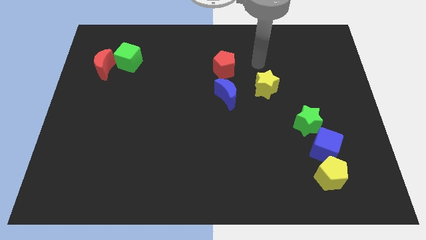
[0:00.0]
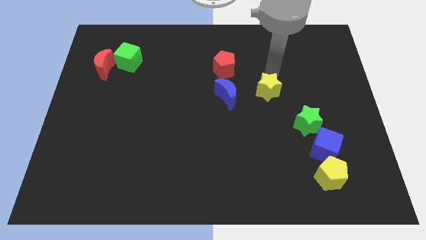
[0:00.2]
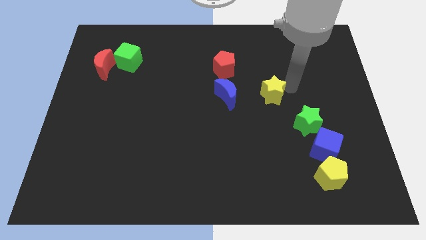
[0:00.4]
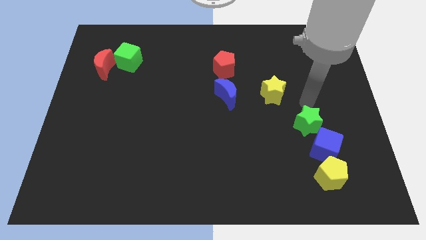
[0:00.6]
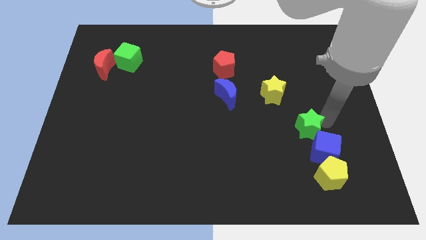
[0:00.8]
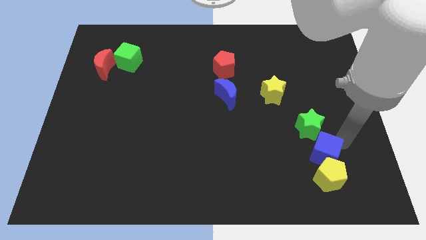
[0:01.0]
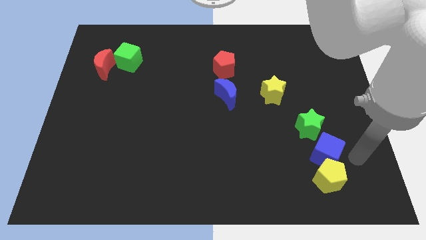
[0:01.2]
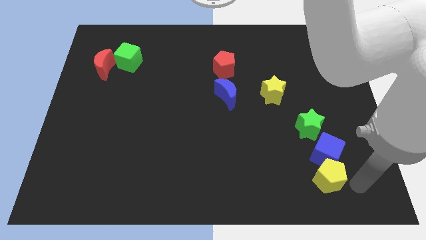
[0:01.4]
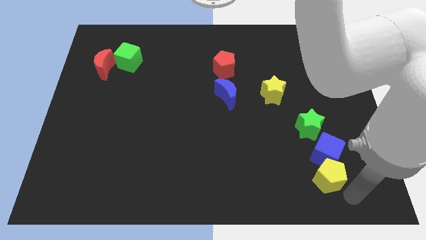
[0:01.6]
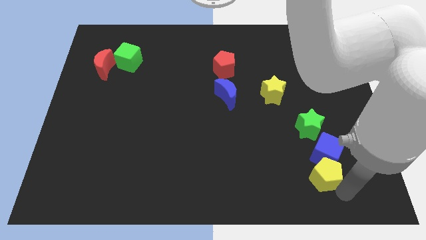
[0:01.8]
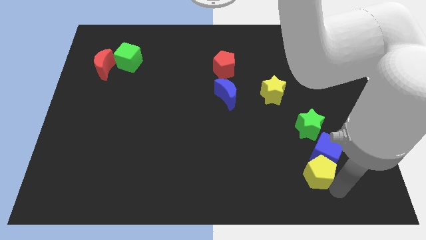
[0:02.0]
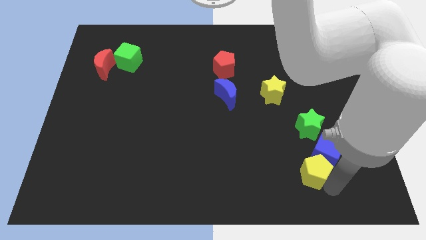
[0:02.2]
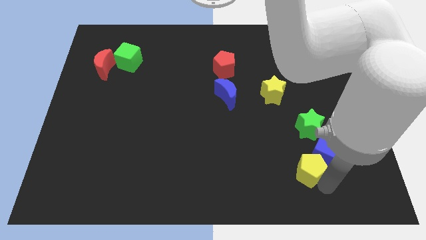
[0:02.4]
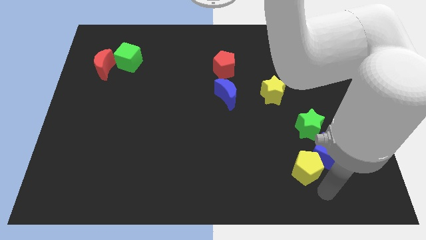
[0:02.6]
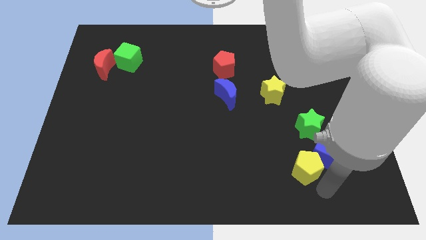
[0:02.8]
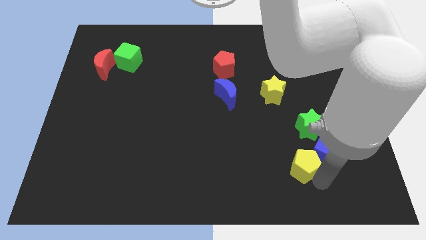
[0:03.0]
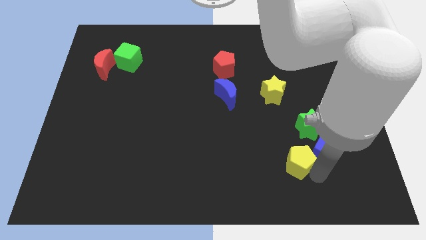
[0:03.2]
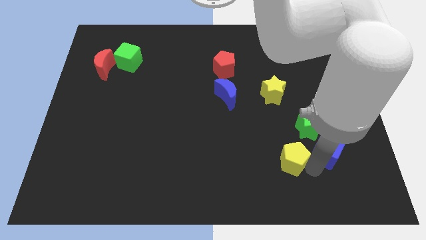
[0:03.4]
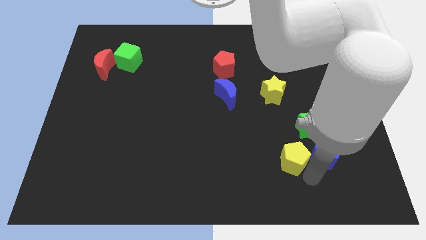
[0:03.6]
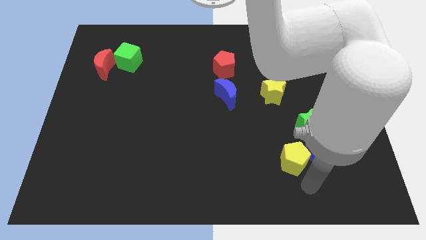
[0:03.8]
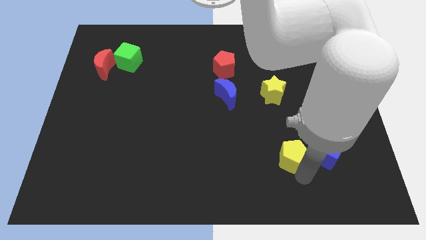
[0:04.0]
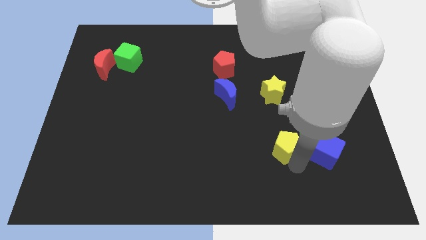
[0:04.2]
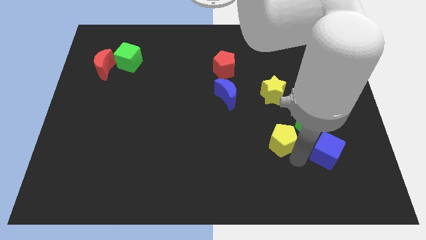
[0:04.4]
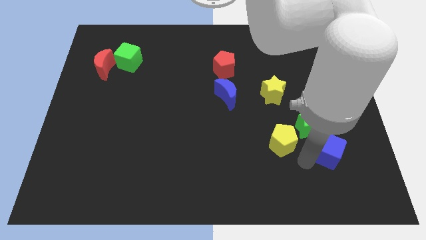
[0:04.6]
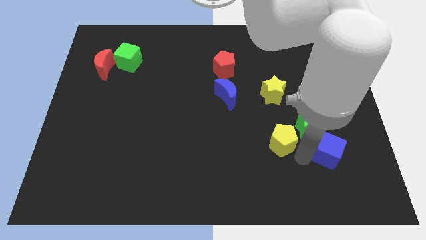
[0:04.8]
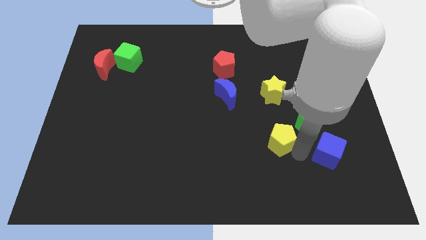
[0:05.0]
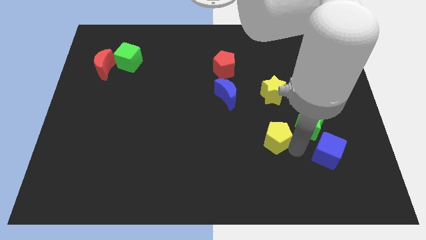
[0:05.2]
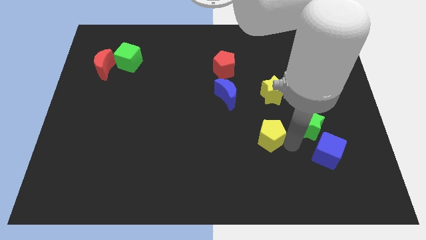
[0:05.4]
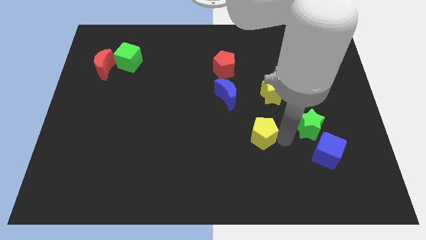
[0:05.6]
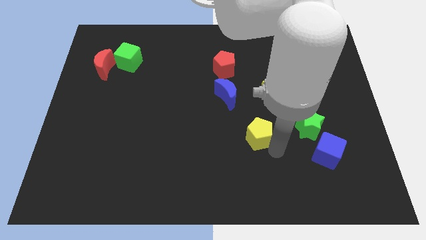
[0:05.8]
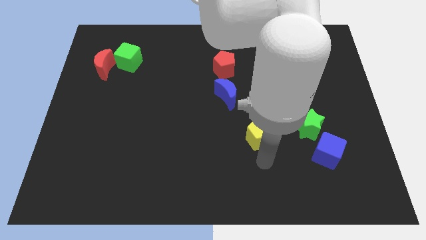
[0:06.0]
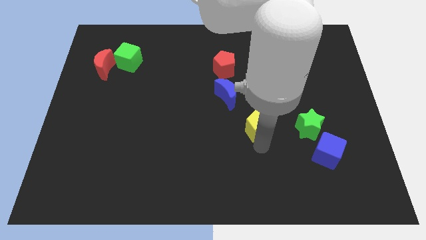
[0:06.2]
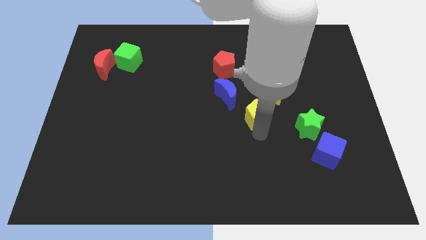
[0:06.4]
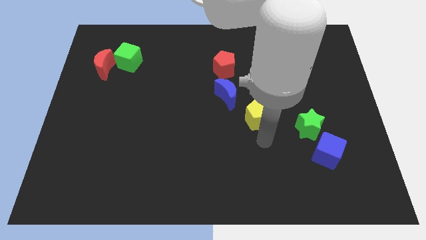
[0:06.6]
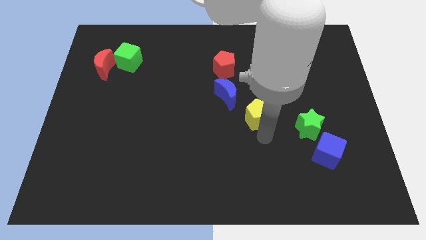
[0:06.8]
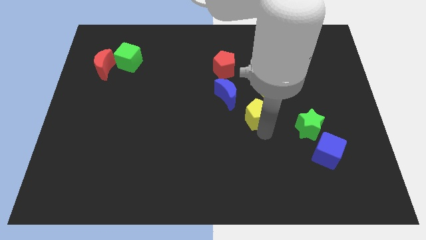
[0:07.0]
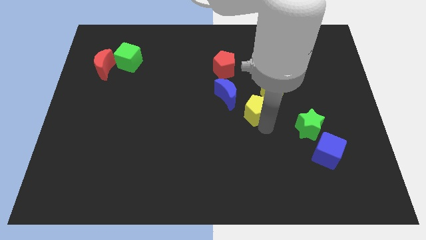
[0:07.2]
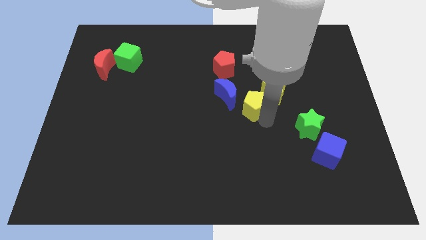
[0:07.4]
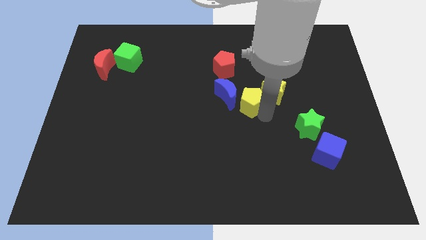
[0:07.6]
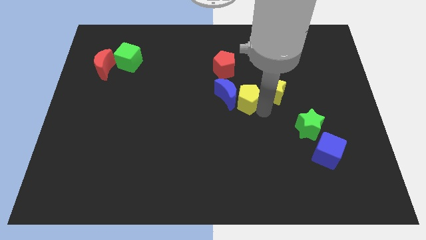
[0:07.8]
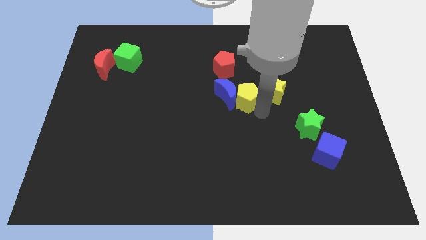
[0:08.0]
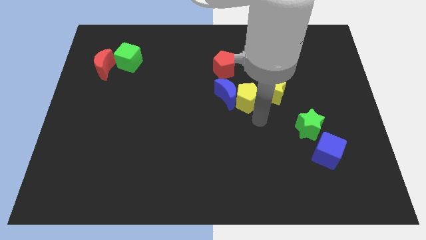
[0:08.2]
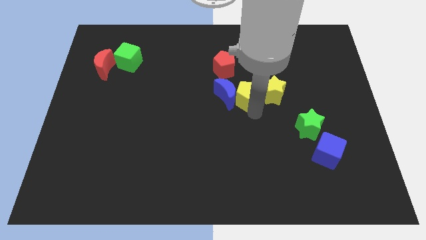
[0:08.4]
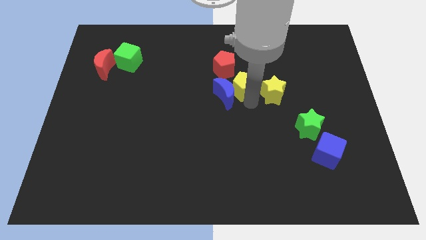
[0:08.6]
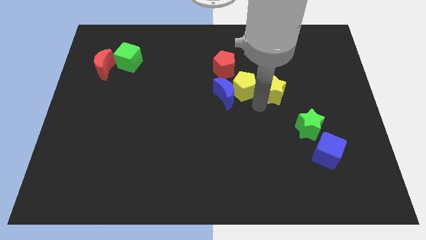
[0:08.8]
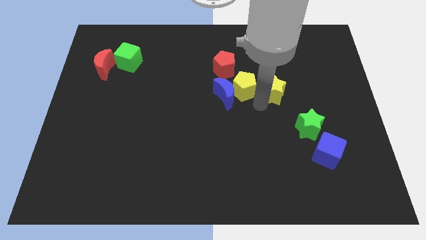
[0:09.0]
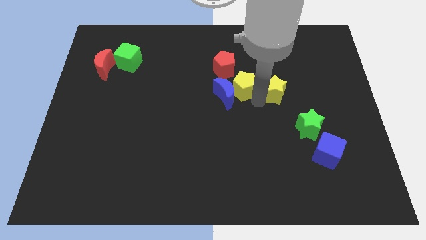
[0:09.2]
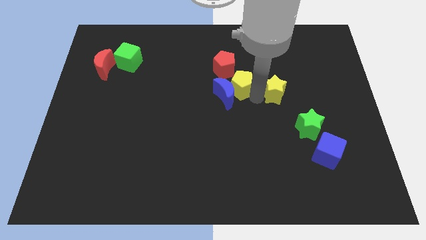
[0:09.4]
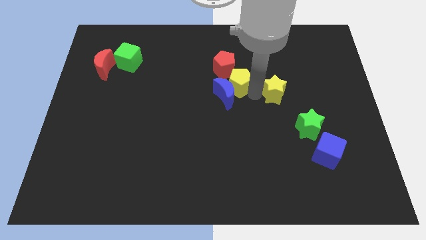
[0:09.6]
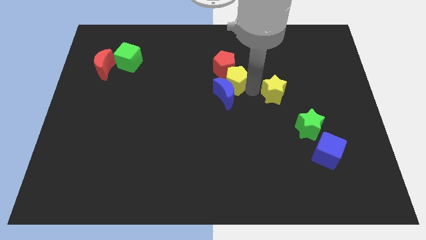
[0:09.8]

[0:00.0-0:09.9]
put the yellow pentagon towards the red pentagon

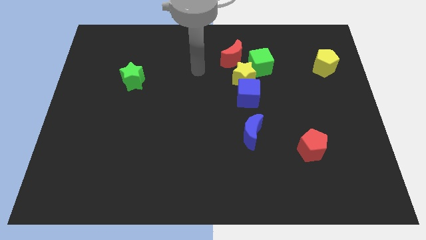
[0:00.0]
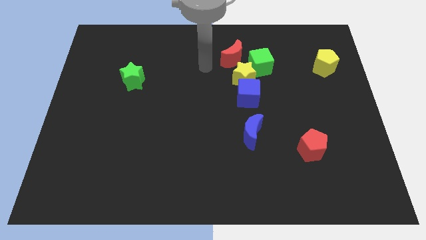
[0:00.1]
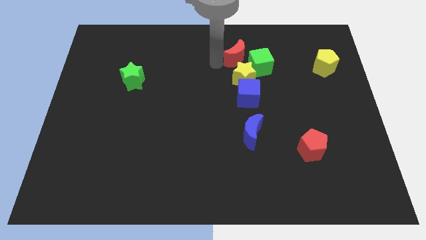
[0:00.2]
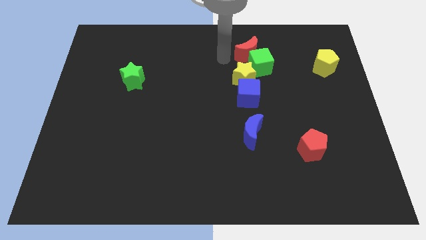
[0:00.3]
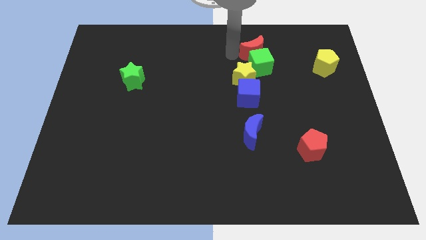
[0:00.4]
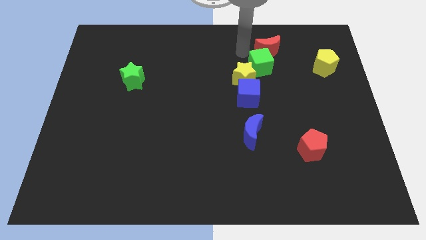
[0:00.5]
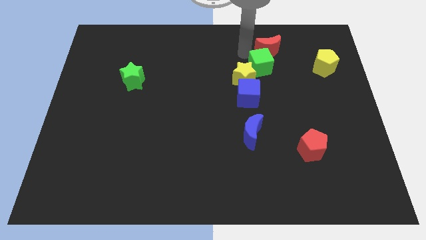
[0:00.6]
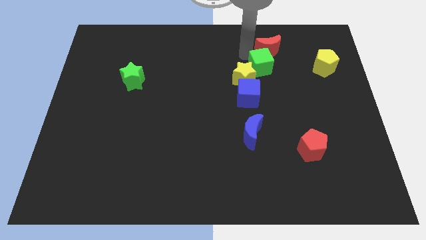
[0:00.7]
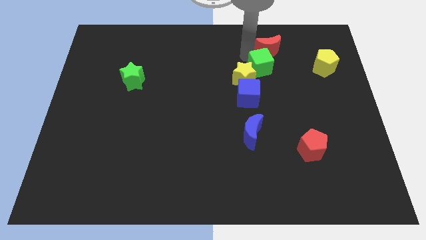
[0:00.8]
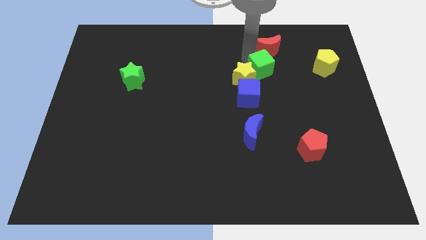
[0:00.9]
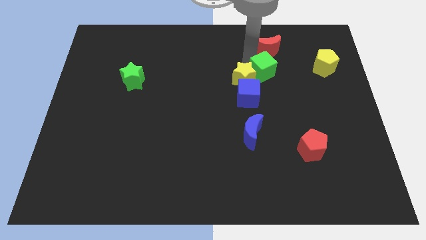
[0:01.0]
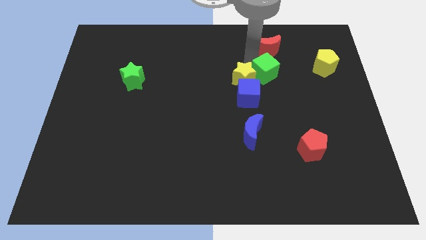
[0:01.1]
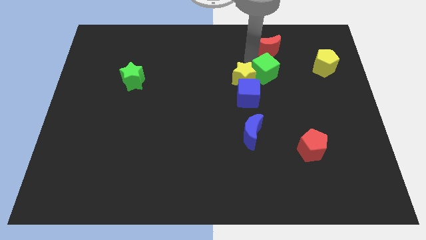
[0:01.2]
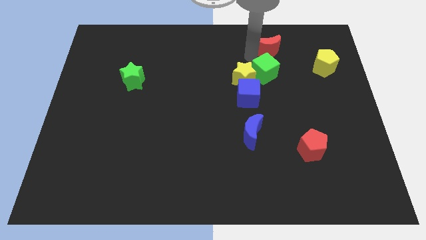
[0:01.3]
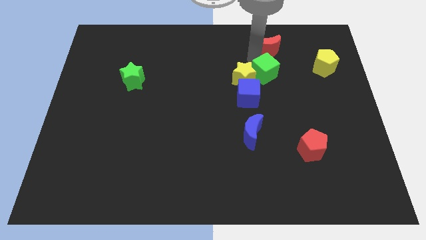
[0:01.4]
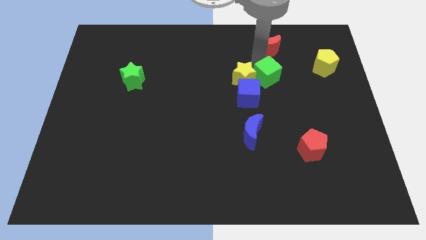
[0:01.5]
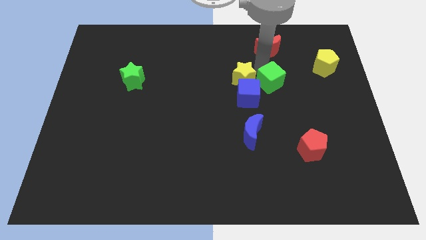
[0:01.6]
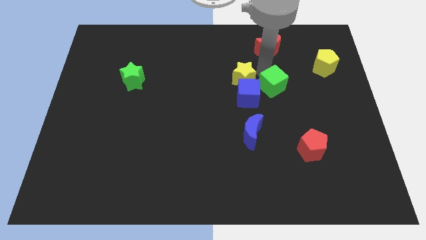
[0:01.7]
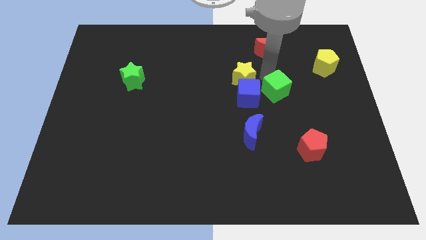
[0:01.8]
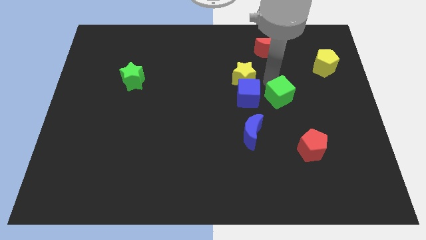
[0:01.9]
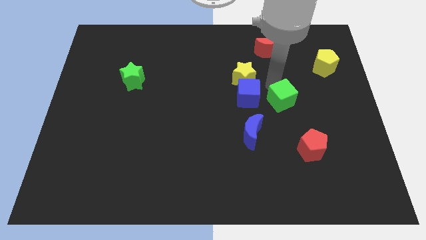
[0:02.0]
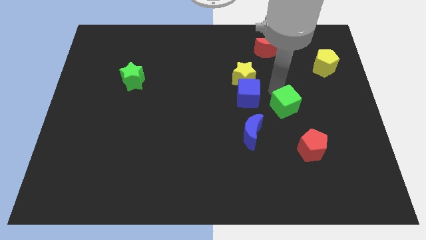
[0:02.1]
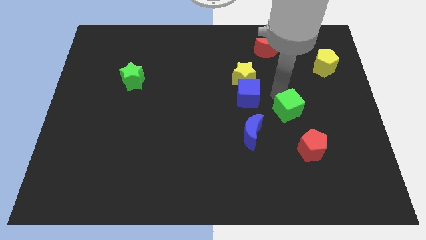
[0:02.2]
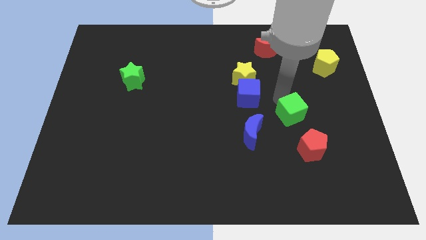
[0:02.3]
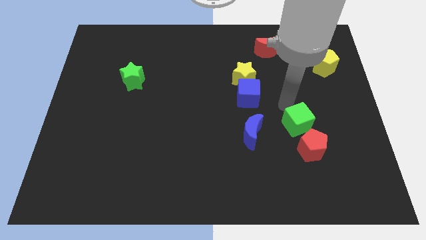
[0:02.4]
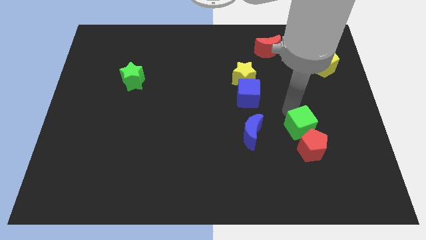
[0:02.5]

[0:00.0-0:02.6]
put the green cube close to the red pentagon

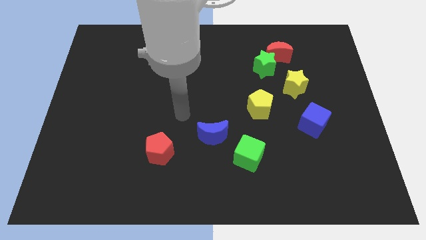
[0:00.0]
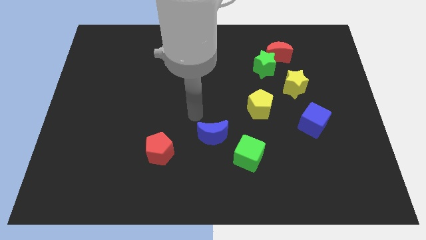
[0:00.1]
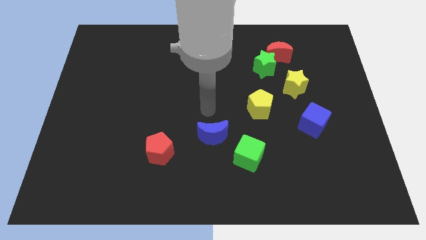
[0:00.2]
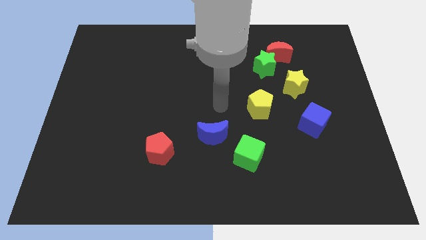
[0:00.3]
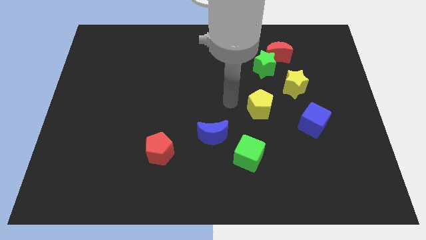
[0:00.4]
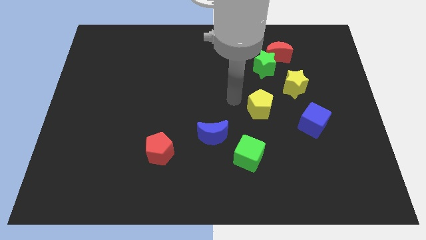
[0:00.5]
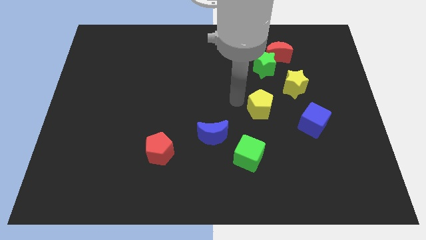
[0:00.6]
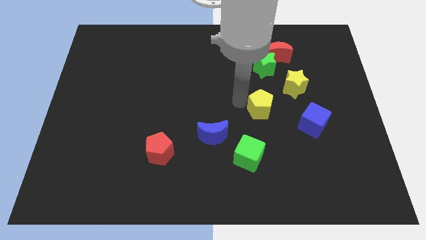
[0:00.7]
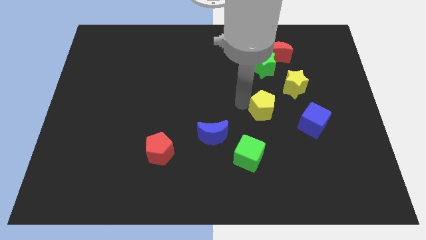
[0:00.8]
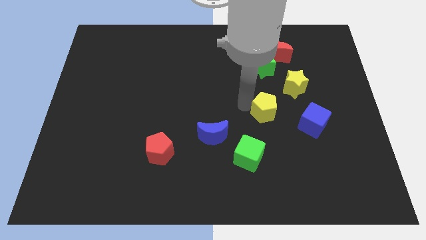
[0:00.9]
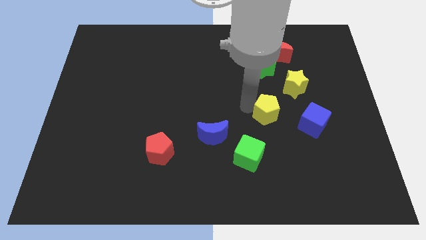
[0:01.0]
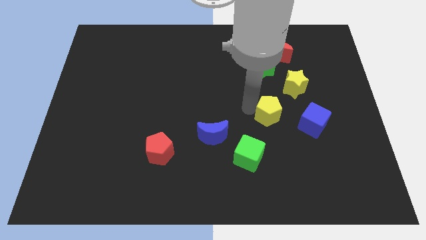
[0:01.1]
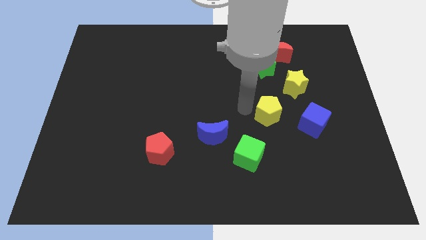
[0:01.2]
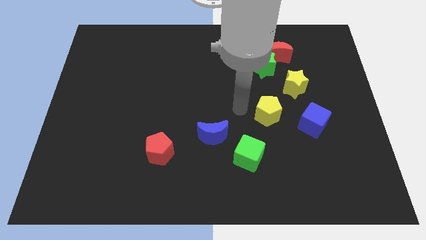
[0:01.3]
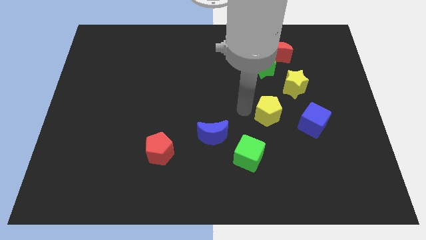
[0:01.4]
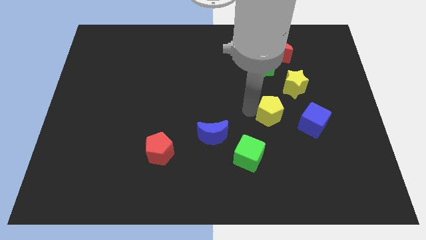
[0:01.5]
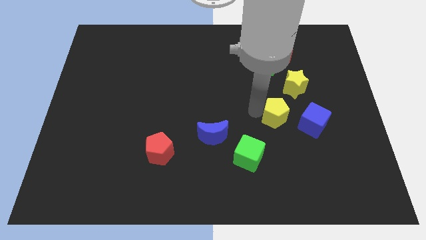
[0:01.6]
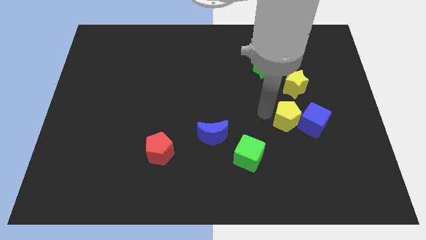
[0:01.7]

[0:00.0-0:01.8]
slide the yellow pentagon next to the blue cube
